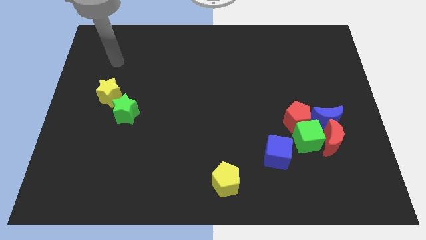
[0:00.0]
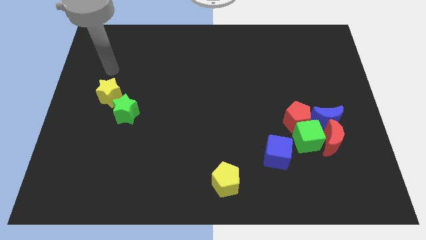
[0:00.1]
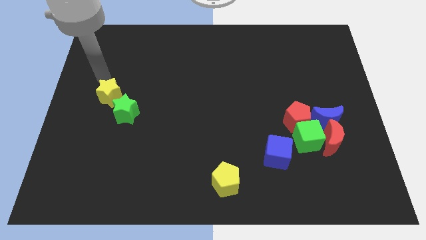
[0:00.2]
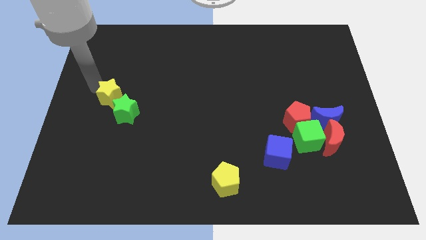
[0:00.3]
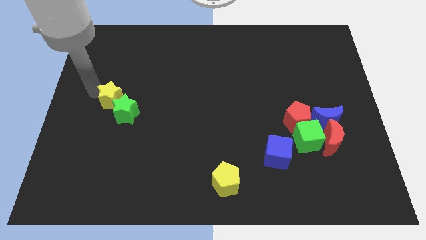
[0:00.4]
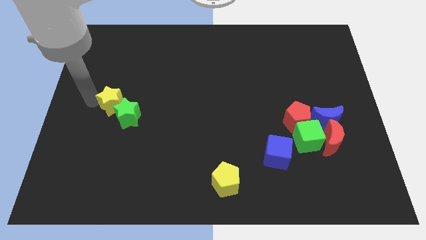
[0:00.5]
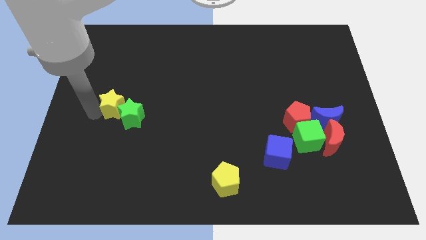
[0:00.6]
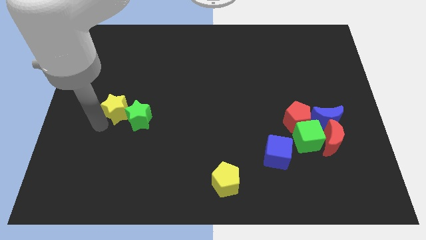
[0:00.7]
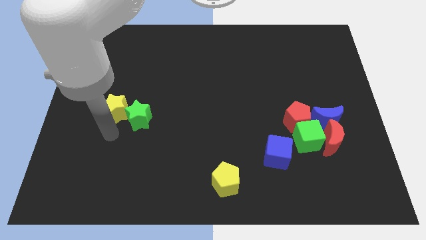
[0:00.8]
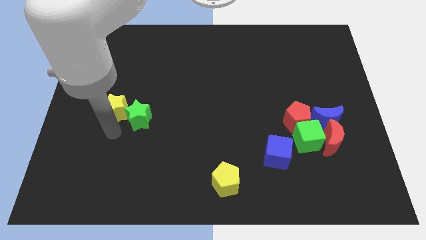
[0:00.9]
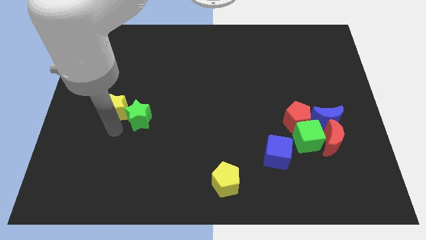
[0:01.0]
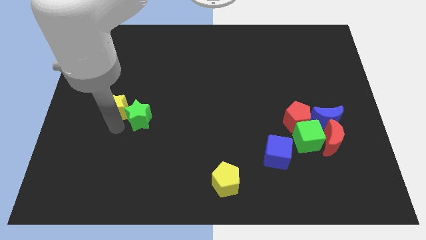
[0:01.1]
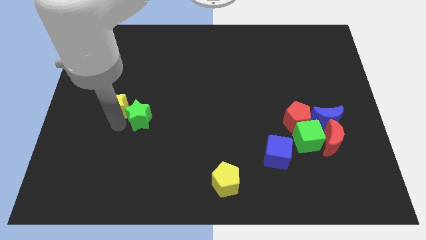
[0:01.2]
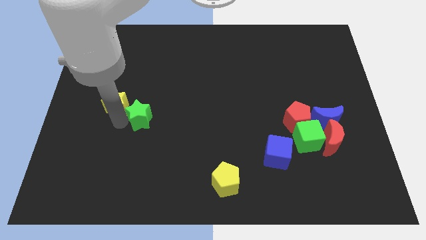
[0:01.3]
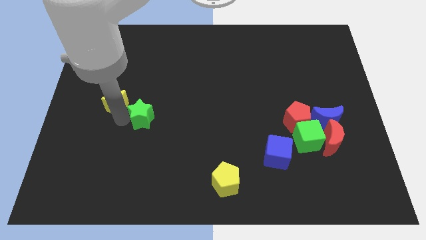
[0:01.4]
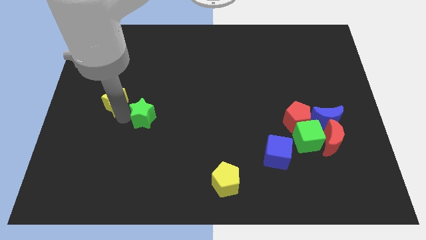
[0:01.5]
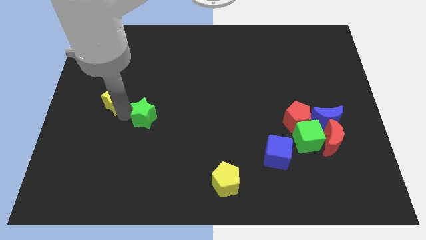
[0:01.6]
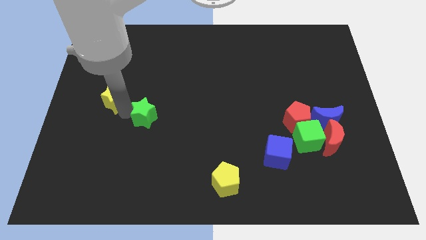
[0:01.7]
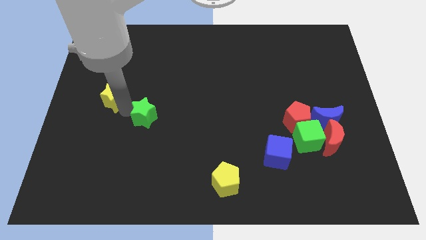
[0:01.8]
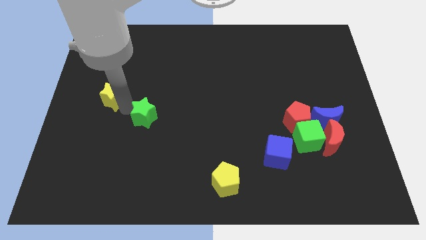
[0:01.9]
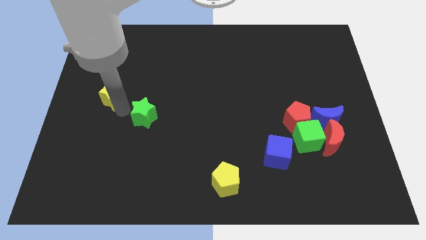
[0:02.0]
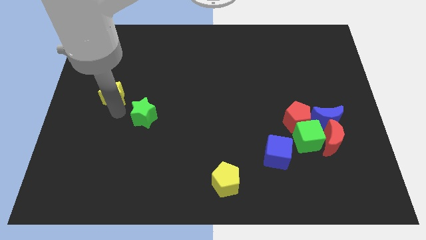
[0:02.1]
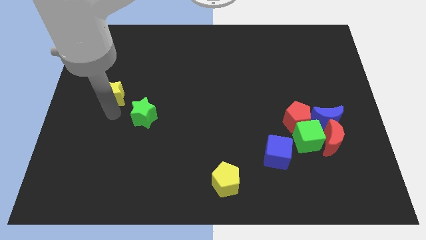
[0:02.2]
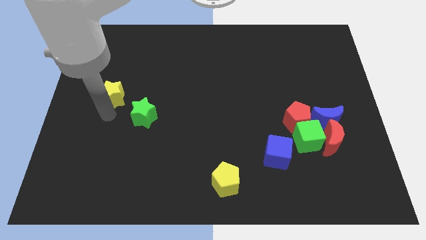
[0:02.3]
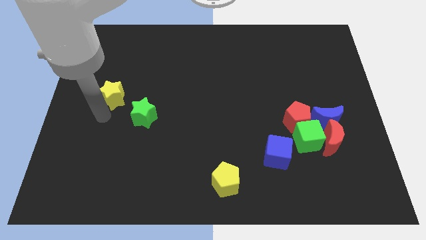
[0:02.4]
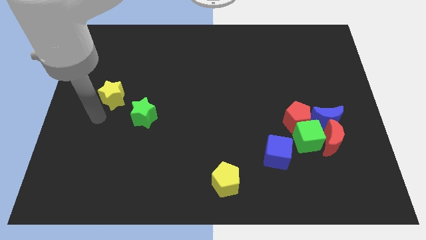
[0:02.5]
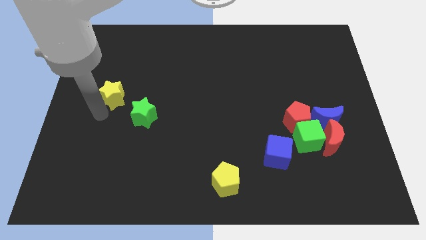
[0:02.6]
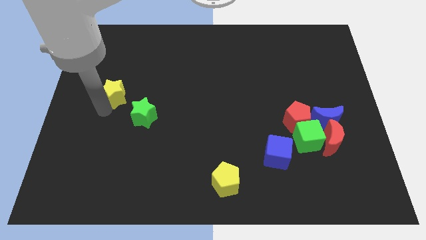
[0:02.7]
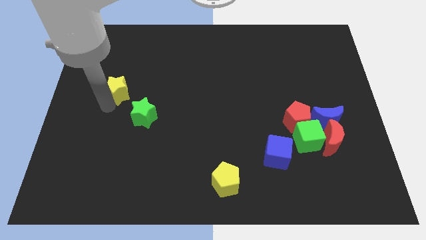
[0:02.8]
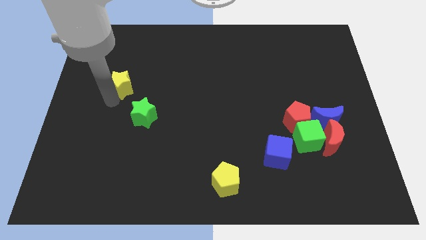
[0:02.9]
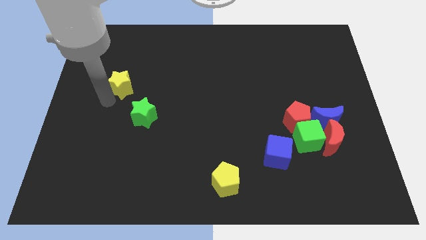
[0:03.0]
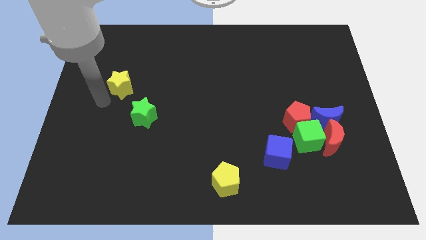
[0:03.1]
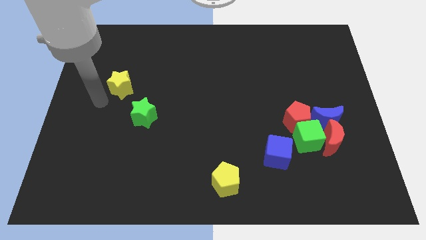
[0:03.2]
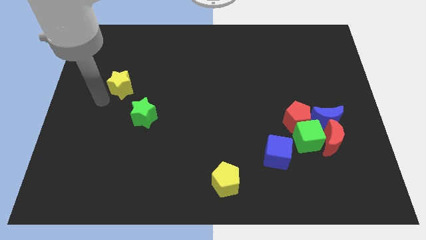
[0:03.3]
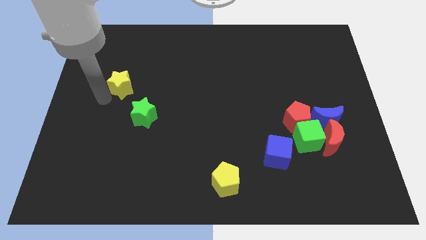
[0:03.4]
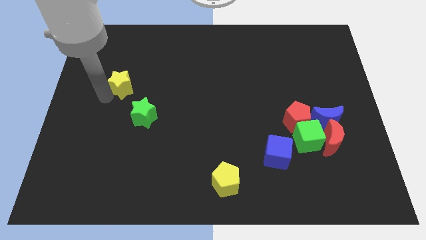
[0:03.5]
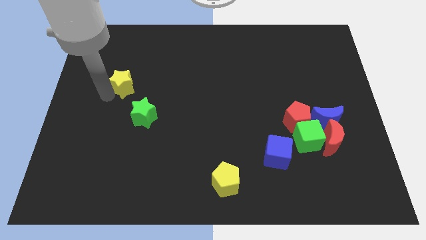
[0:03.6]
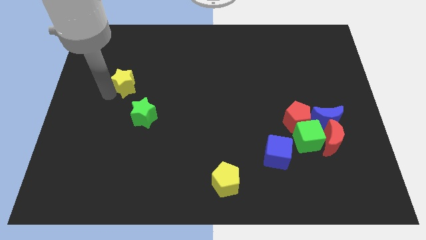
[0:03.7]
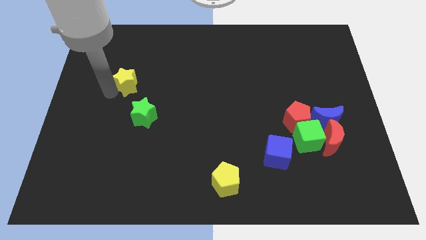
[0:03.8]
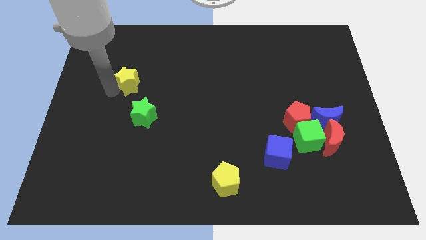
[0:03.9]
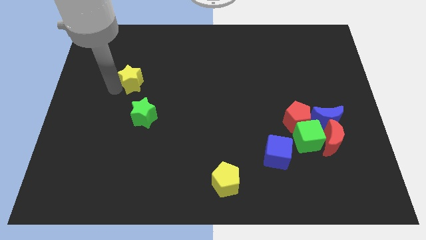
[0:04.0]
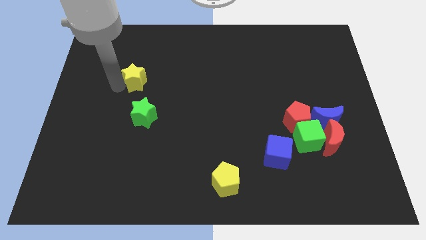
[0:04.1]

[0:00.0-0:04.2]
push the yellow star upwards and then right somewhat

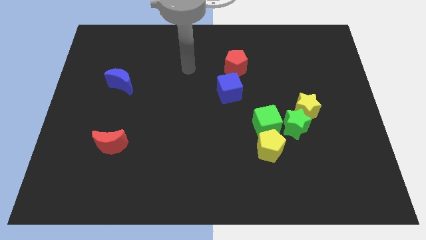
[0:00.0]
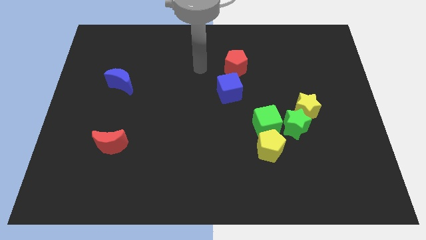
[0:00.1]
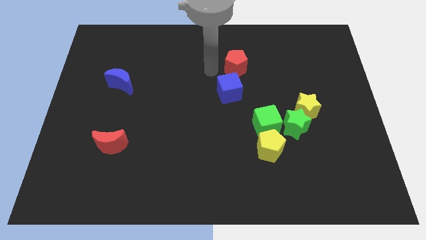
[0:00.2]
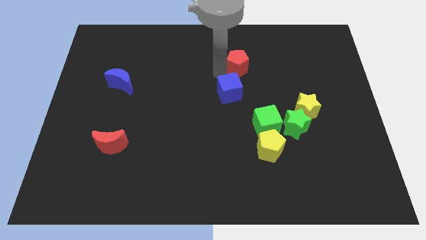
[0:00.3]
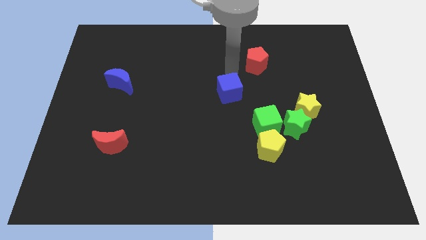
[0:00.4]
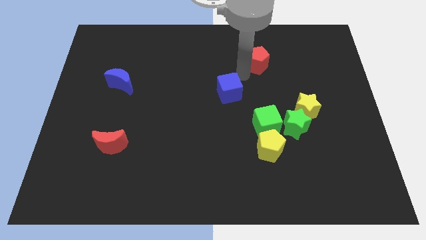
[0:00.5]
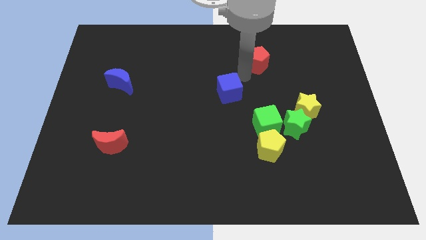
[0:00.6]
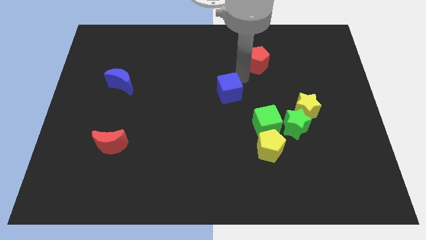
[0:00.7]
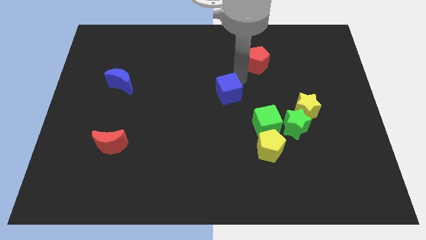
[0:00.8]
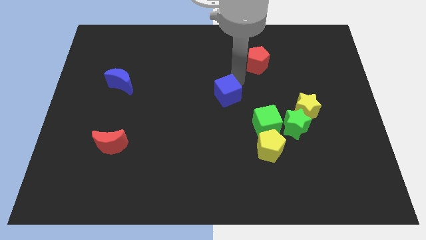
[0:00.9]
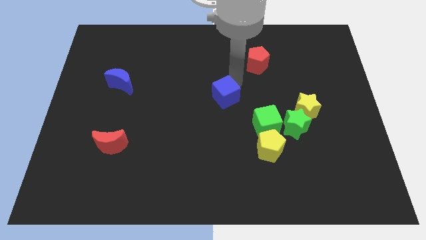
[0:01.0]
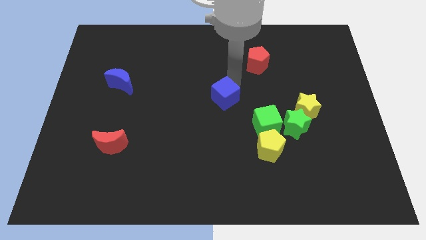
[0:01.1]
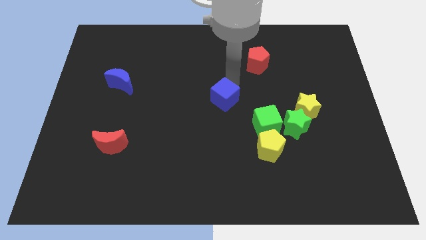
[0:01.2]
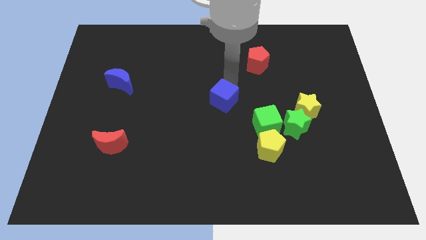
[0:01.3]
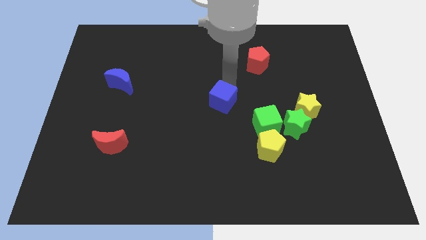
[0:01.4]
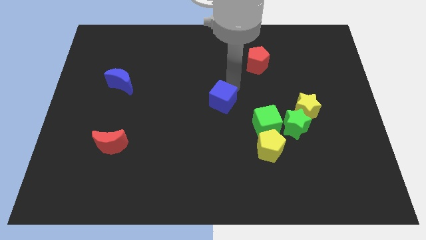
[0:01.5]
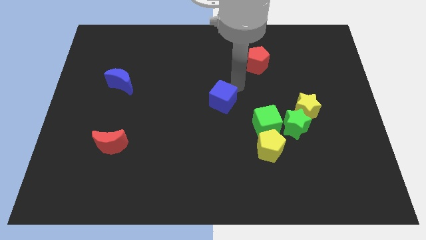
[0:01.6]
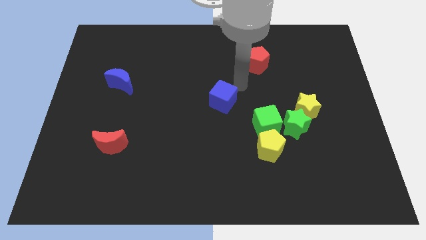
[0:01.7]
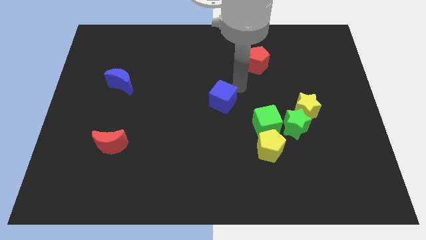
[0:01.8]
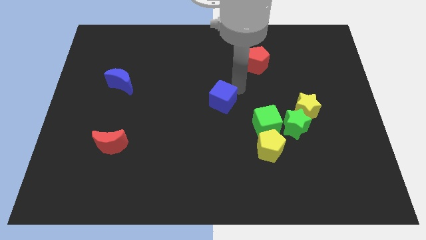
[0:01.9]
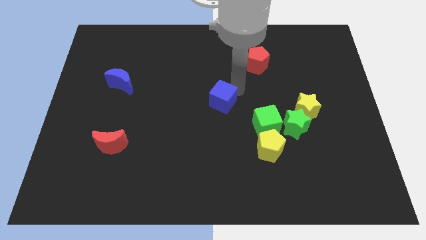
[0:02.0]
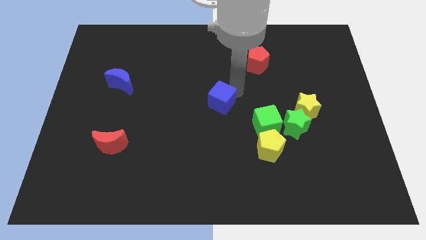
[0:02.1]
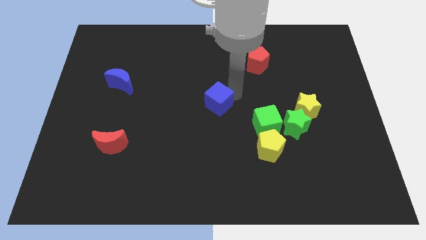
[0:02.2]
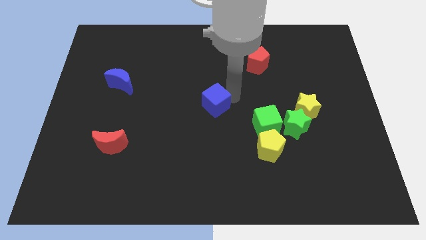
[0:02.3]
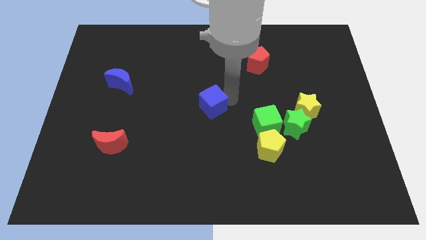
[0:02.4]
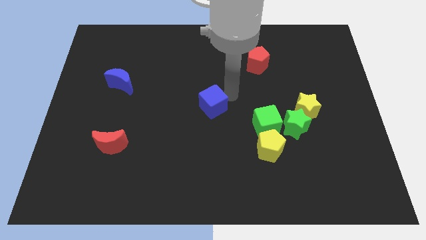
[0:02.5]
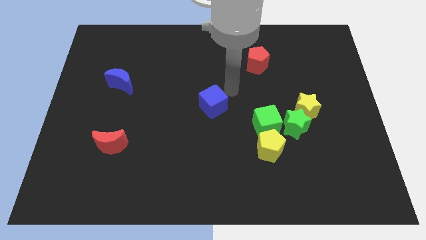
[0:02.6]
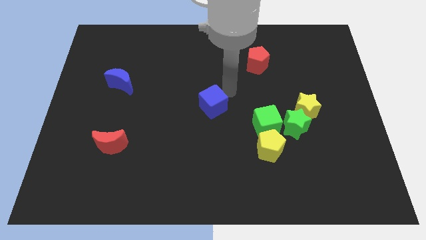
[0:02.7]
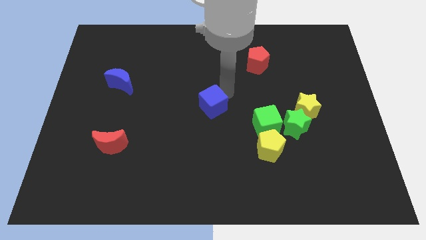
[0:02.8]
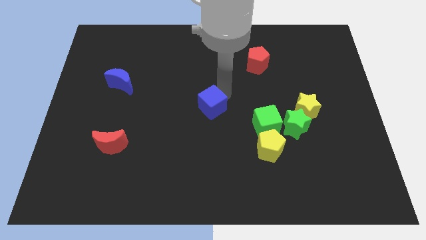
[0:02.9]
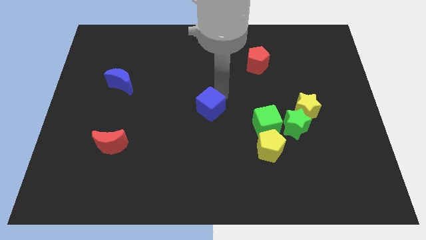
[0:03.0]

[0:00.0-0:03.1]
push the blue cube a little downwards and to the left

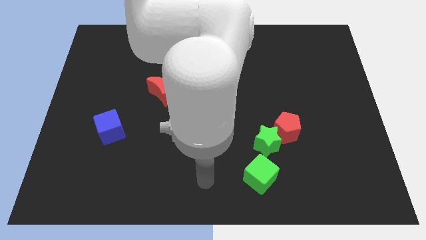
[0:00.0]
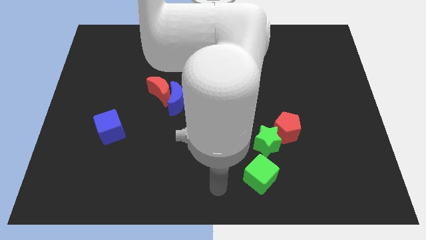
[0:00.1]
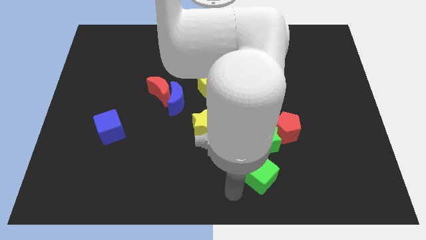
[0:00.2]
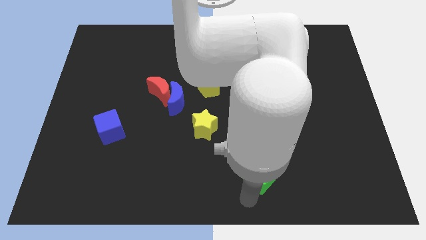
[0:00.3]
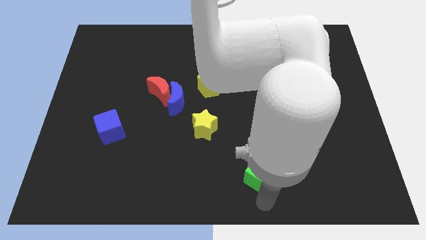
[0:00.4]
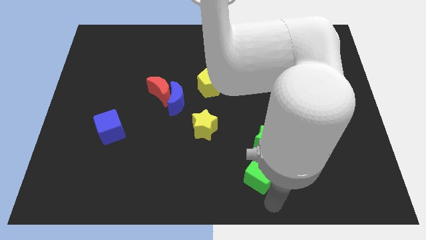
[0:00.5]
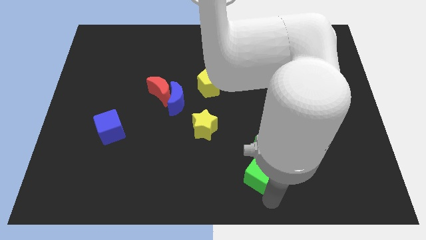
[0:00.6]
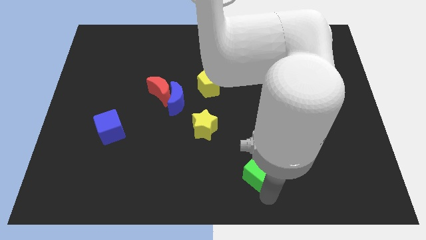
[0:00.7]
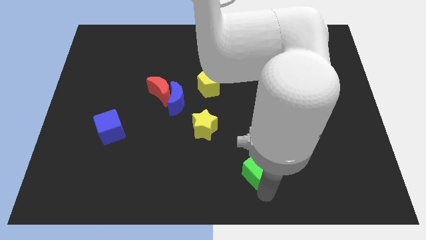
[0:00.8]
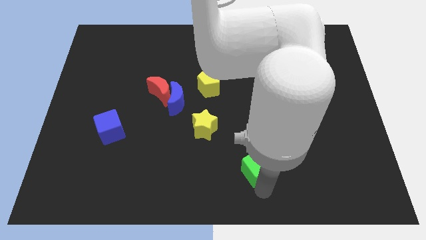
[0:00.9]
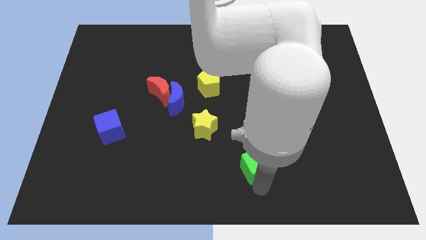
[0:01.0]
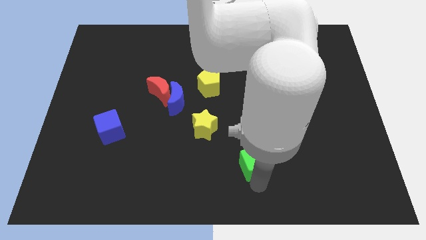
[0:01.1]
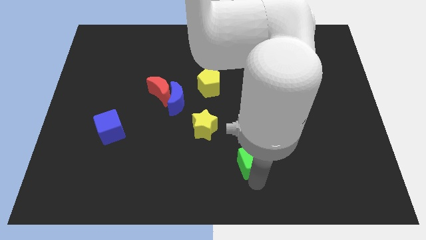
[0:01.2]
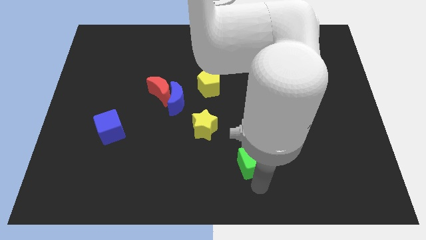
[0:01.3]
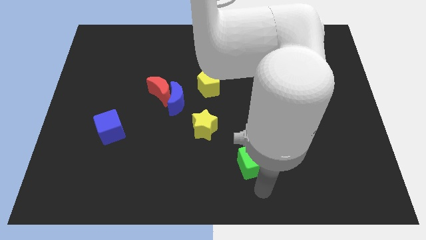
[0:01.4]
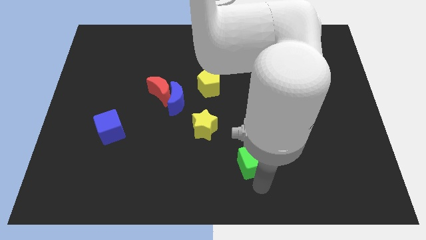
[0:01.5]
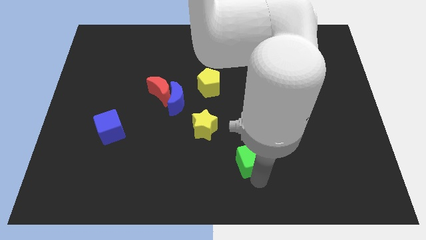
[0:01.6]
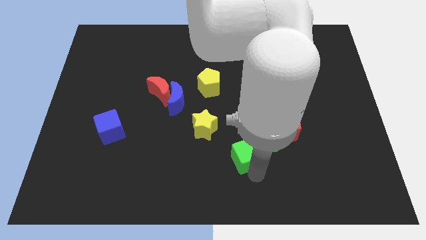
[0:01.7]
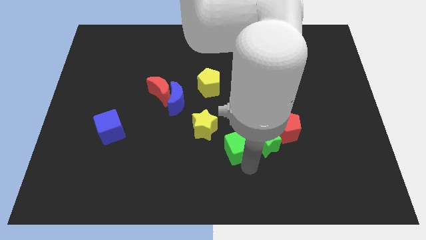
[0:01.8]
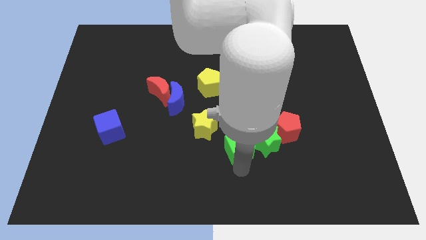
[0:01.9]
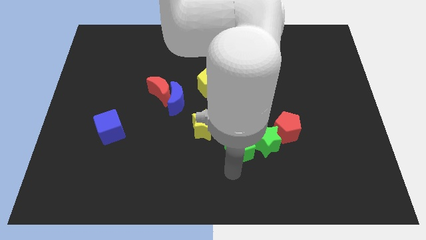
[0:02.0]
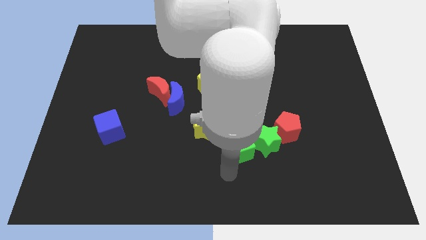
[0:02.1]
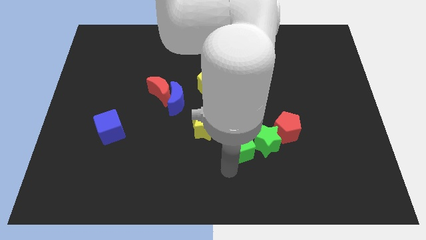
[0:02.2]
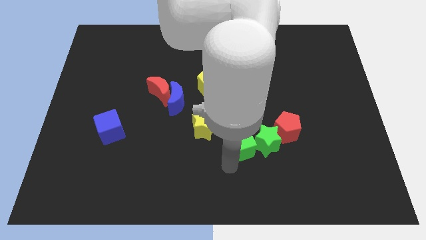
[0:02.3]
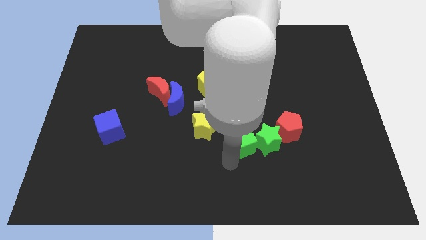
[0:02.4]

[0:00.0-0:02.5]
slightly push the green cube up
